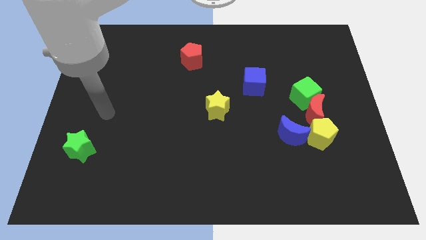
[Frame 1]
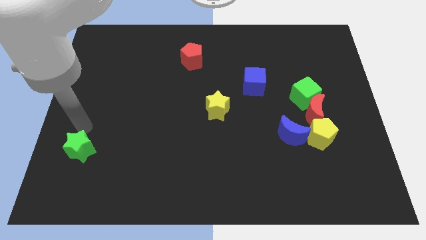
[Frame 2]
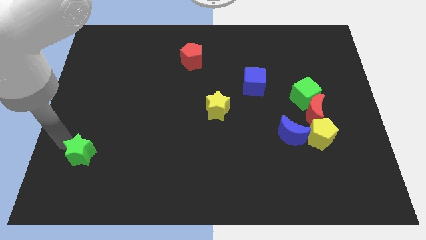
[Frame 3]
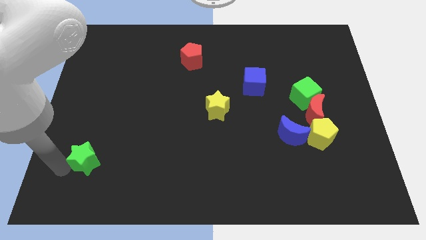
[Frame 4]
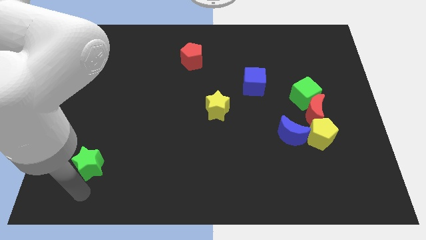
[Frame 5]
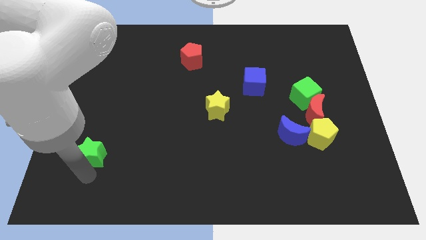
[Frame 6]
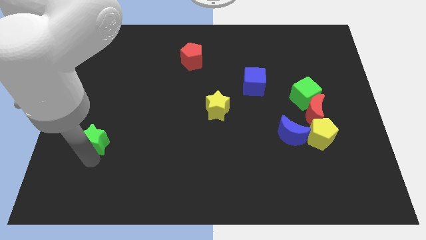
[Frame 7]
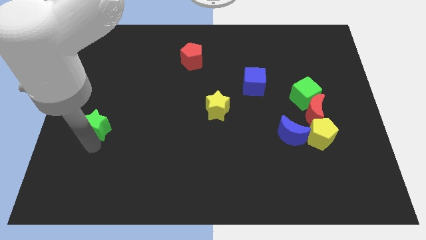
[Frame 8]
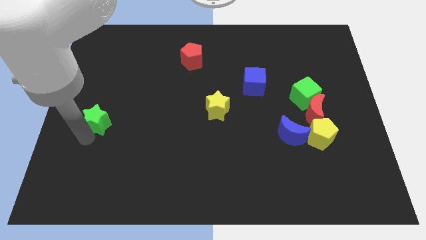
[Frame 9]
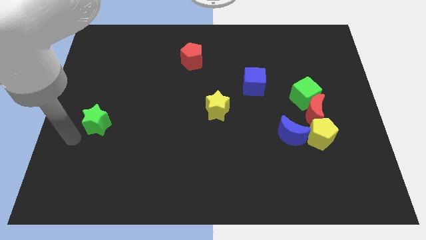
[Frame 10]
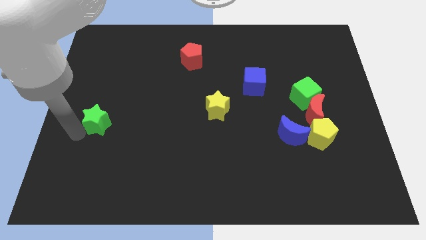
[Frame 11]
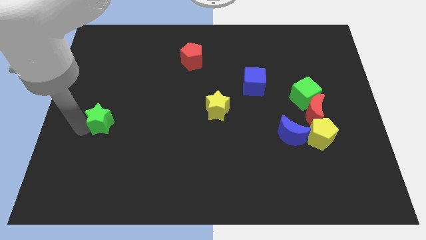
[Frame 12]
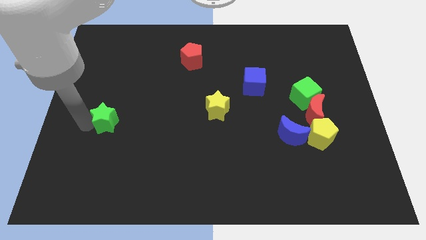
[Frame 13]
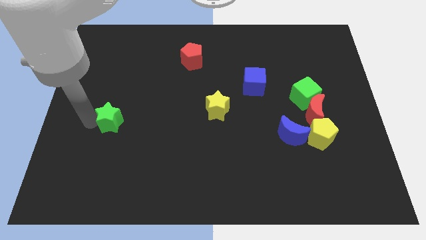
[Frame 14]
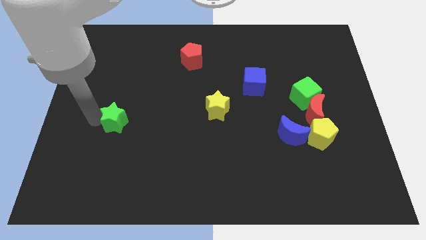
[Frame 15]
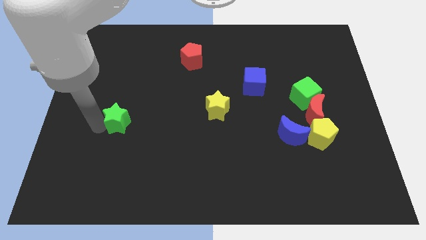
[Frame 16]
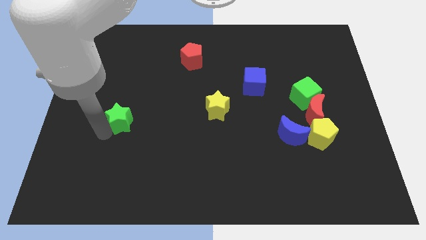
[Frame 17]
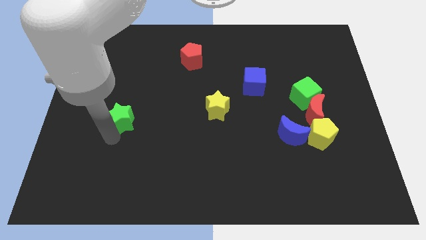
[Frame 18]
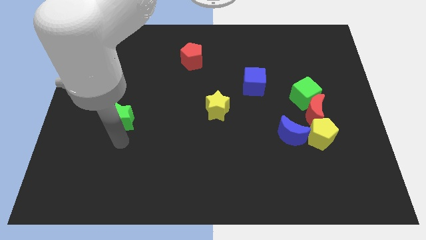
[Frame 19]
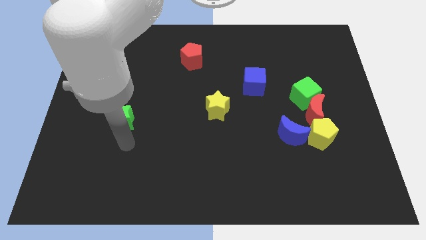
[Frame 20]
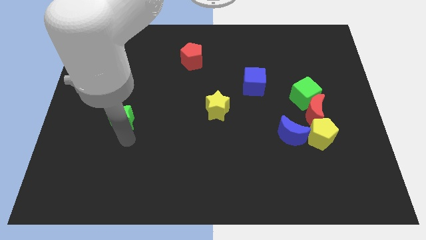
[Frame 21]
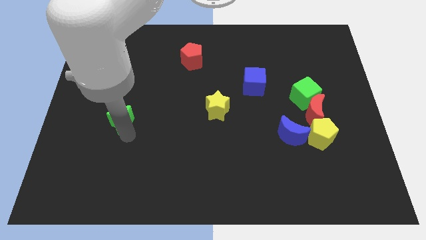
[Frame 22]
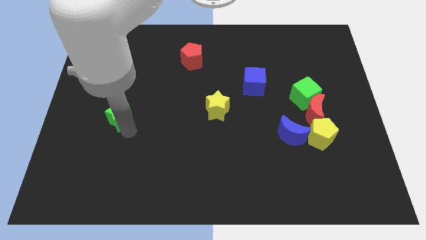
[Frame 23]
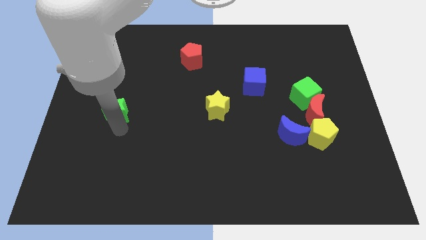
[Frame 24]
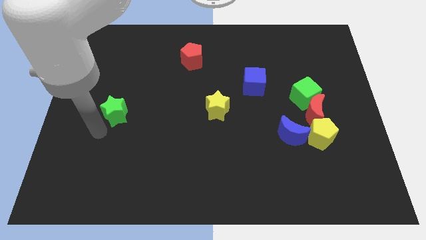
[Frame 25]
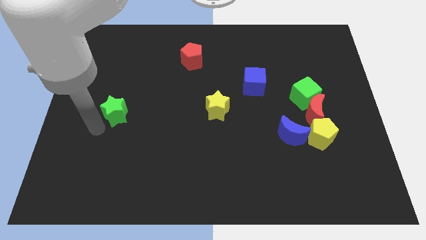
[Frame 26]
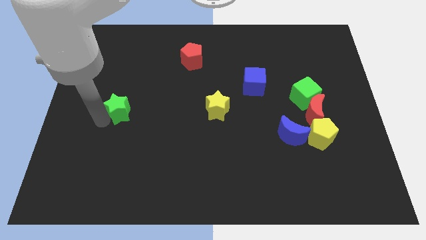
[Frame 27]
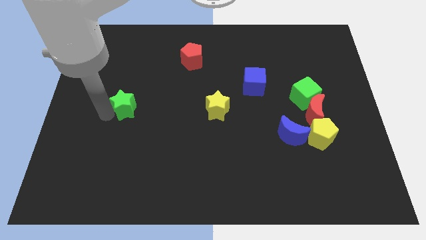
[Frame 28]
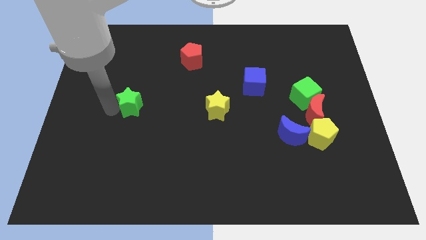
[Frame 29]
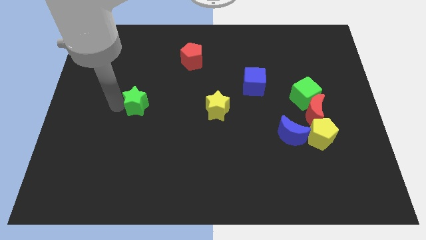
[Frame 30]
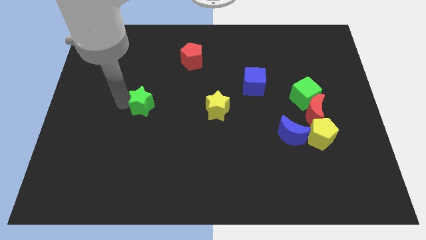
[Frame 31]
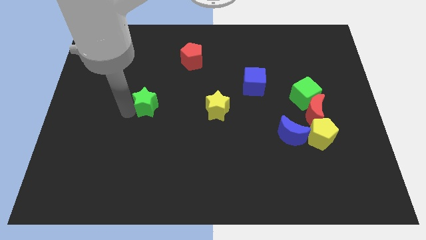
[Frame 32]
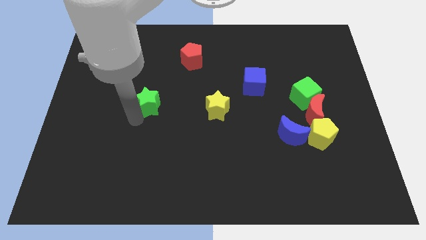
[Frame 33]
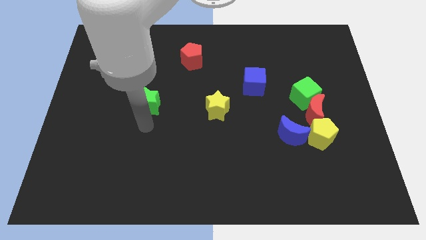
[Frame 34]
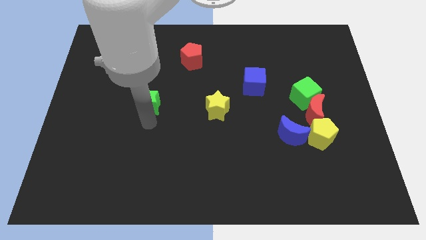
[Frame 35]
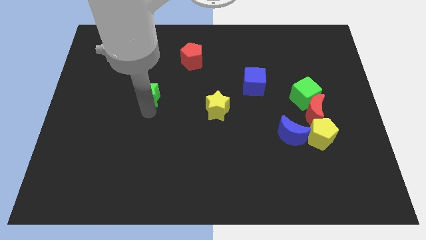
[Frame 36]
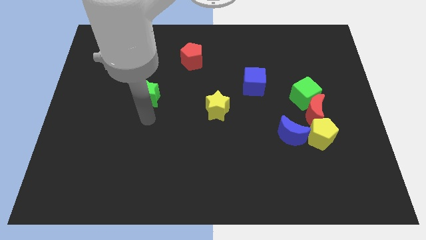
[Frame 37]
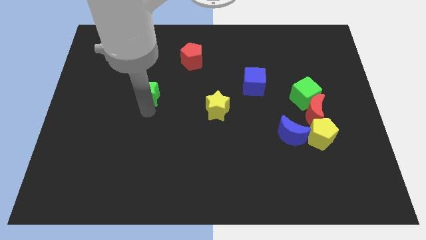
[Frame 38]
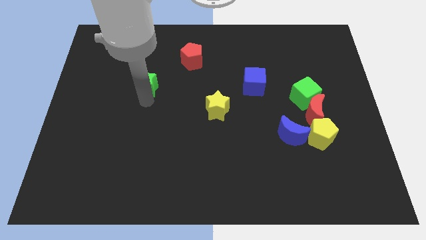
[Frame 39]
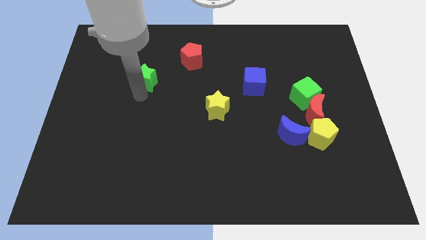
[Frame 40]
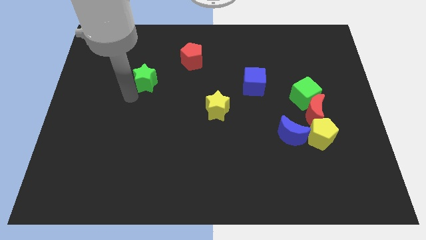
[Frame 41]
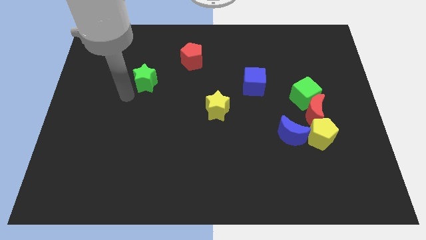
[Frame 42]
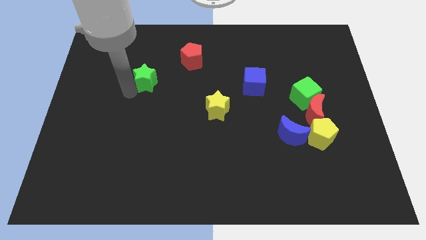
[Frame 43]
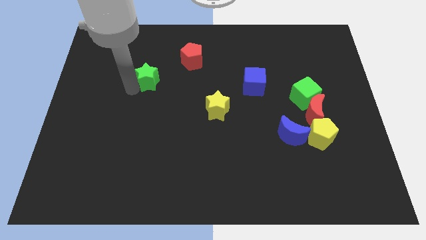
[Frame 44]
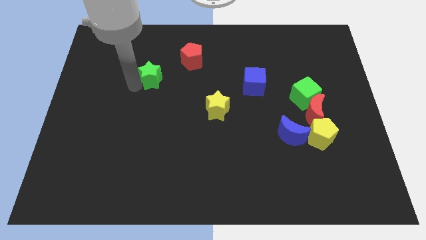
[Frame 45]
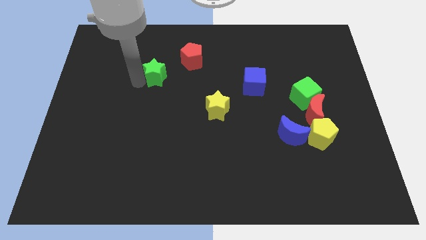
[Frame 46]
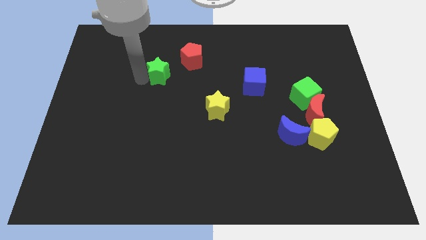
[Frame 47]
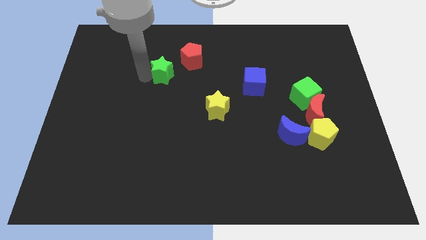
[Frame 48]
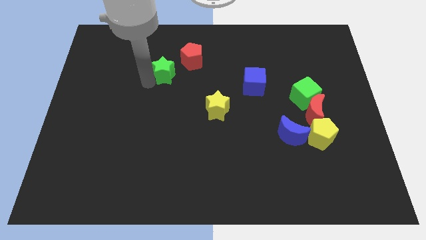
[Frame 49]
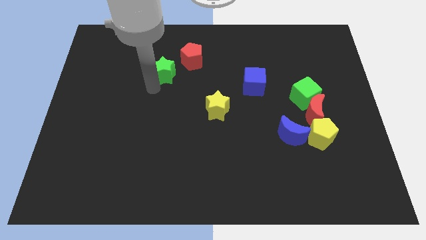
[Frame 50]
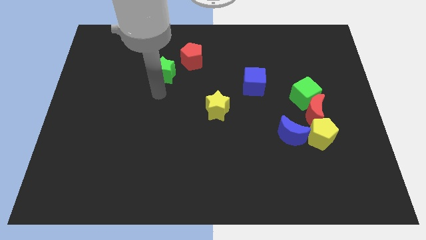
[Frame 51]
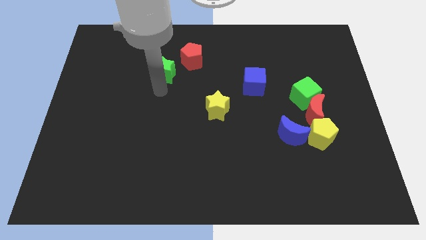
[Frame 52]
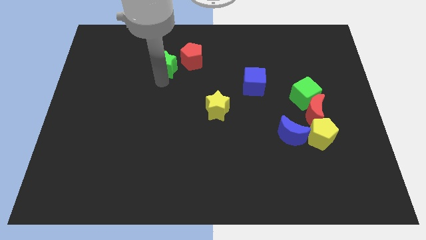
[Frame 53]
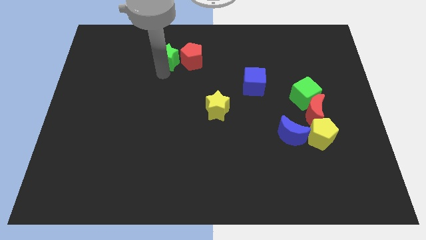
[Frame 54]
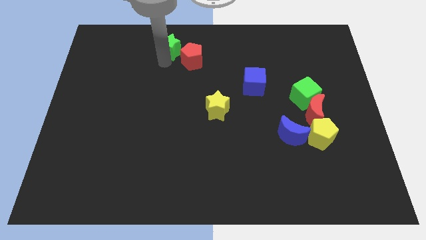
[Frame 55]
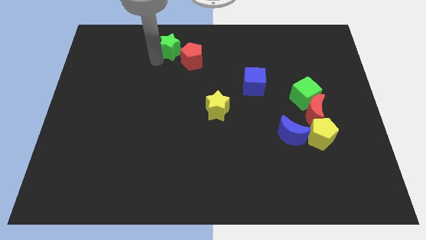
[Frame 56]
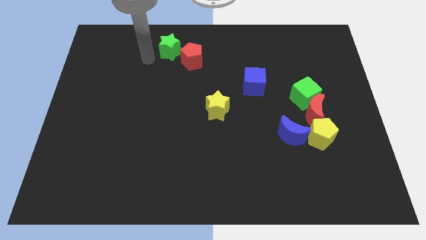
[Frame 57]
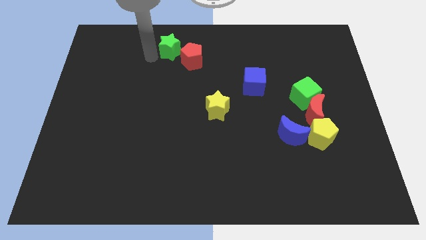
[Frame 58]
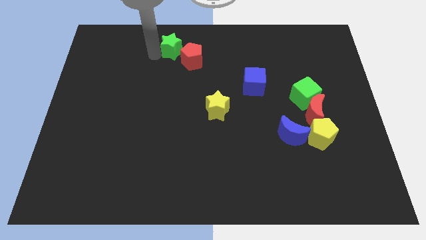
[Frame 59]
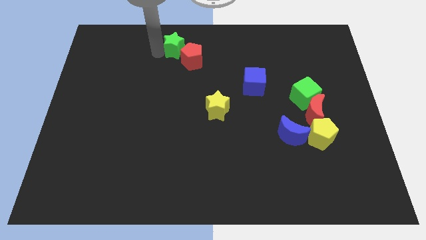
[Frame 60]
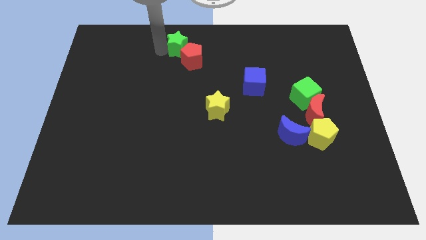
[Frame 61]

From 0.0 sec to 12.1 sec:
put the green star to the top side
